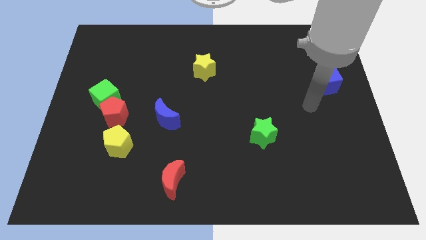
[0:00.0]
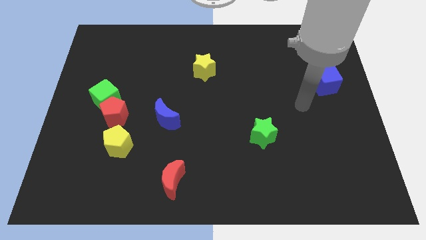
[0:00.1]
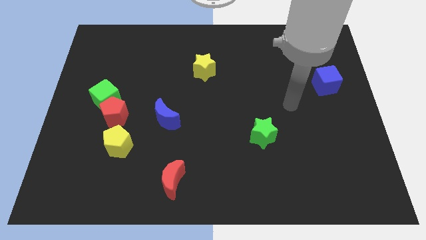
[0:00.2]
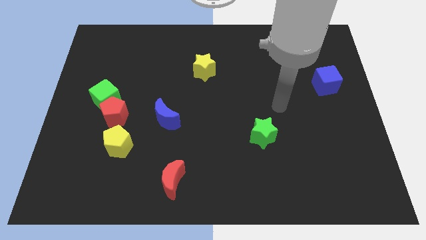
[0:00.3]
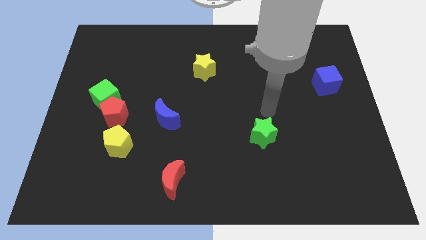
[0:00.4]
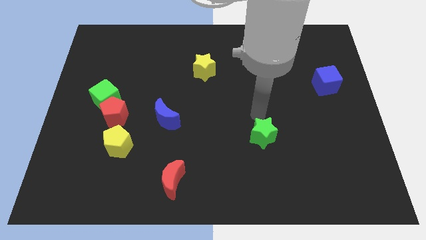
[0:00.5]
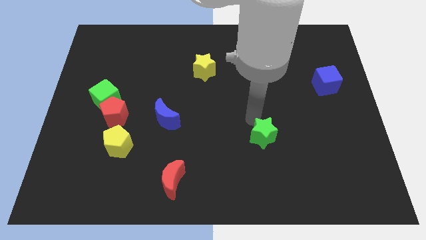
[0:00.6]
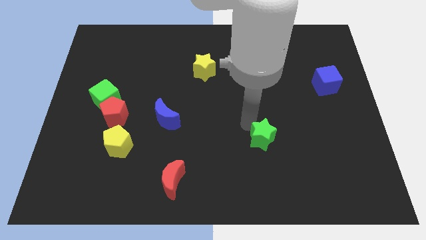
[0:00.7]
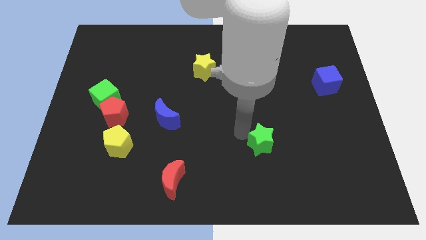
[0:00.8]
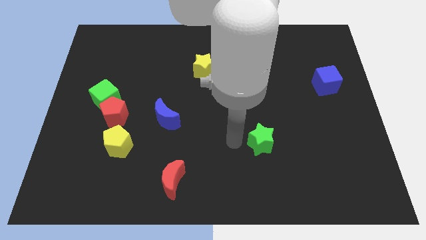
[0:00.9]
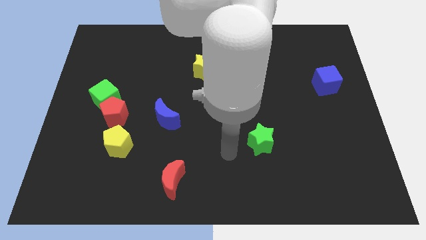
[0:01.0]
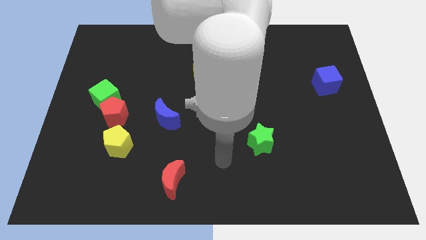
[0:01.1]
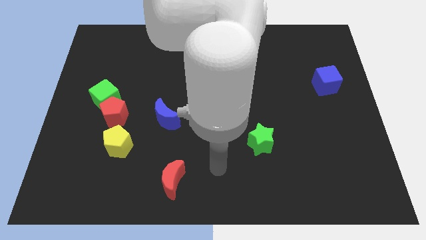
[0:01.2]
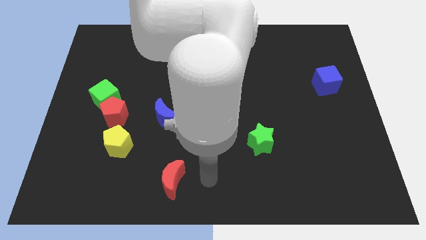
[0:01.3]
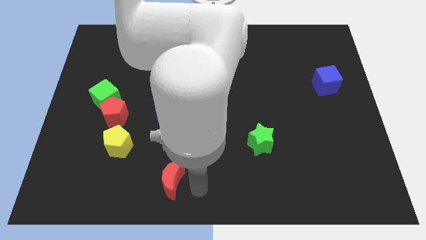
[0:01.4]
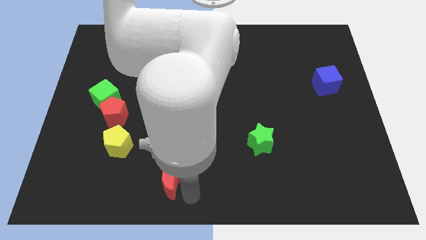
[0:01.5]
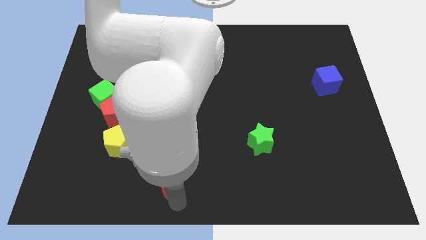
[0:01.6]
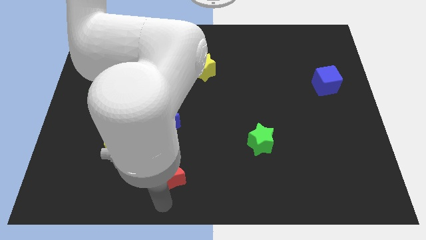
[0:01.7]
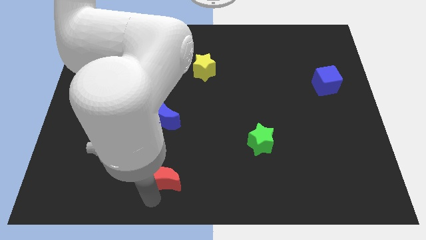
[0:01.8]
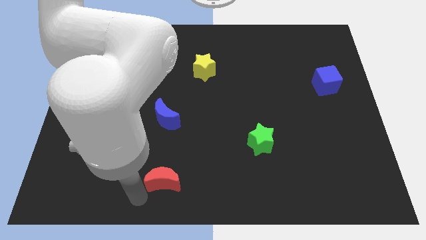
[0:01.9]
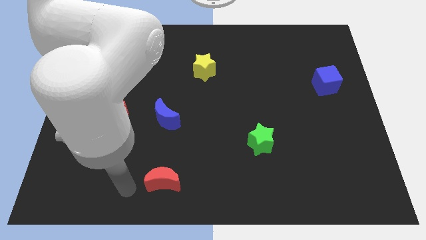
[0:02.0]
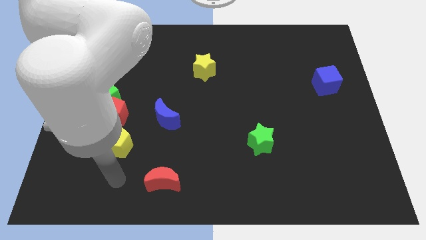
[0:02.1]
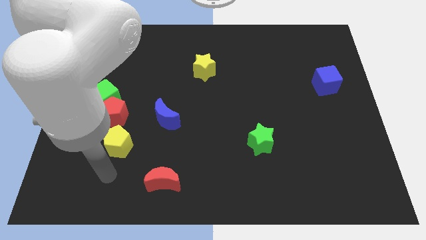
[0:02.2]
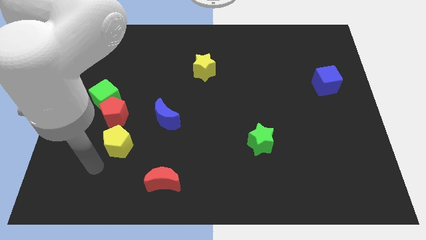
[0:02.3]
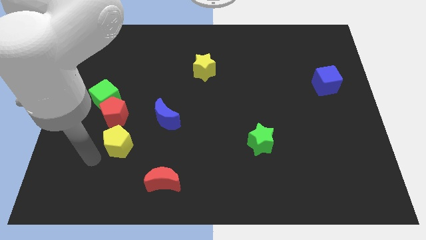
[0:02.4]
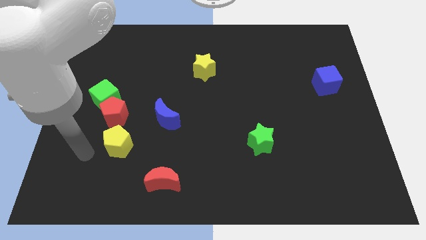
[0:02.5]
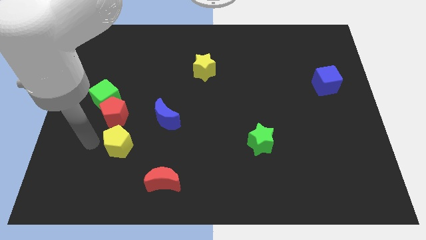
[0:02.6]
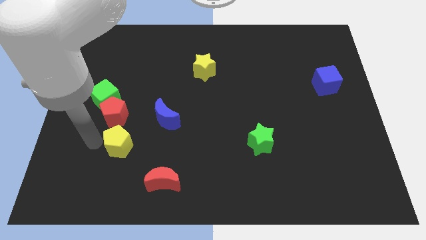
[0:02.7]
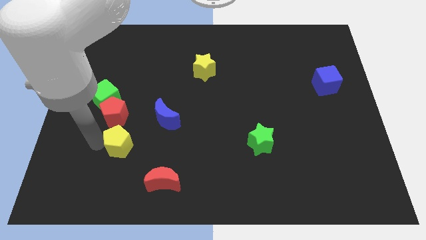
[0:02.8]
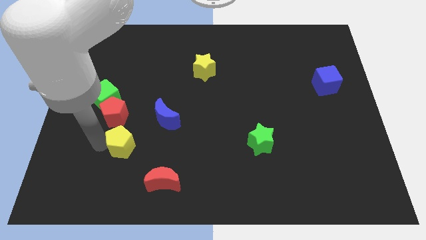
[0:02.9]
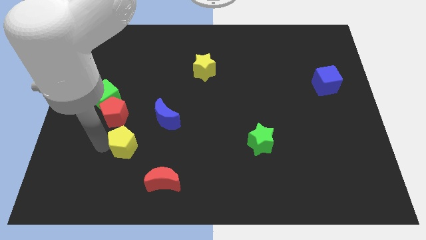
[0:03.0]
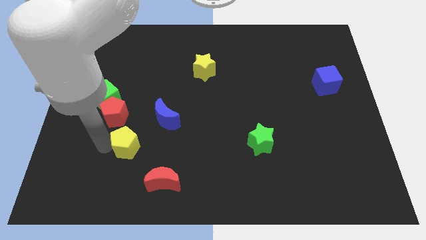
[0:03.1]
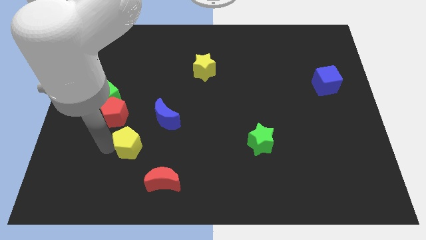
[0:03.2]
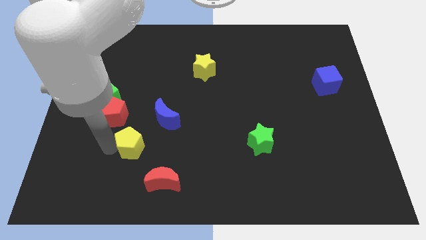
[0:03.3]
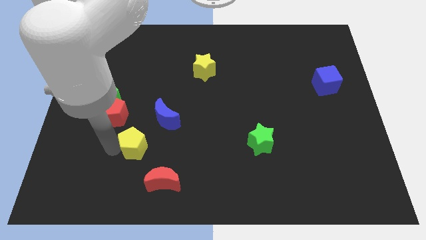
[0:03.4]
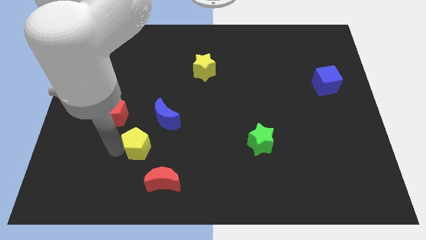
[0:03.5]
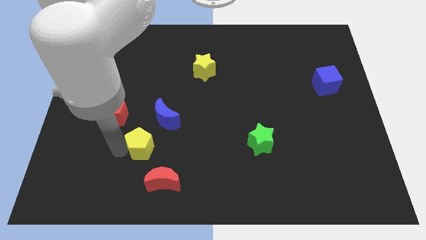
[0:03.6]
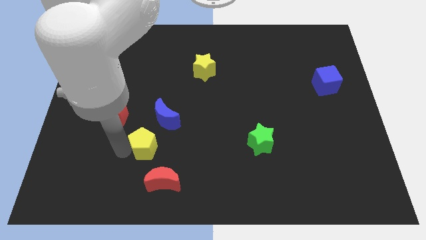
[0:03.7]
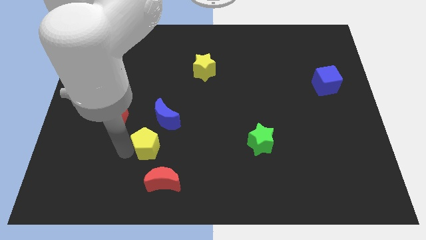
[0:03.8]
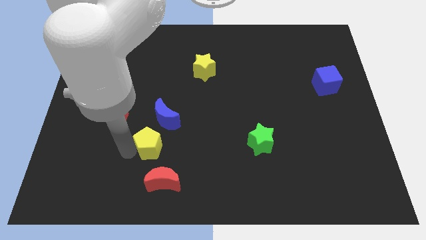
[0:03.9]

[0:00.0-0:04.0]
slightly slide the yellow pentagon to the right

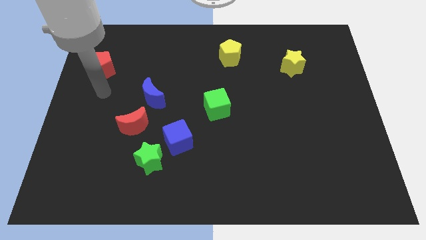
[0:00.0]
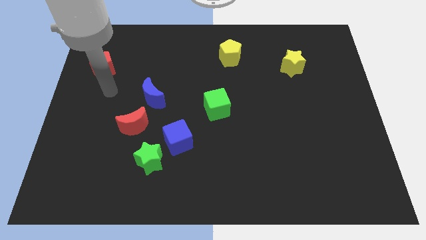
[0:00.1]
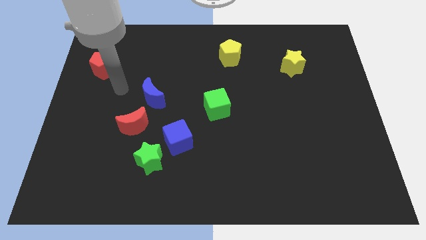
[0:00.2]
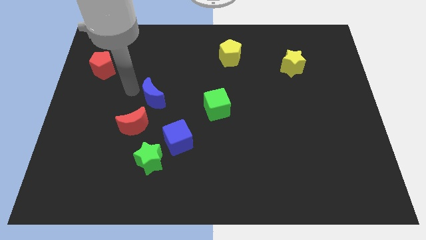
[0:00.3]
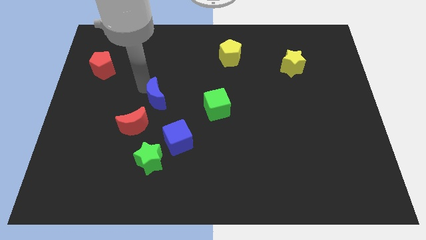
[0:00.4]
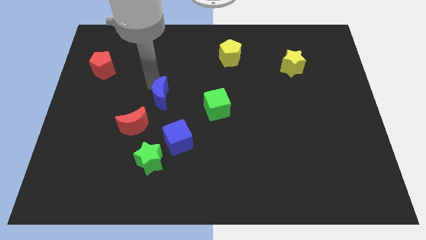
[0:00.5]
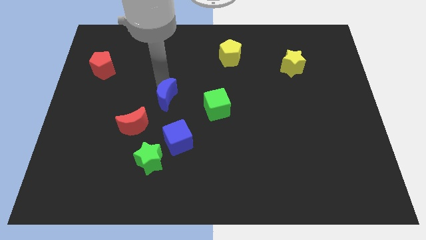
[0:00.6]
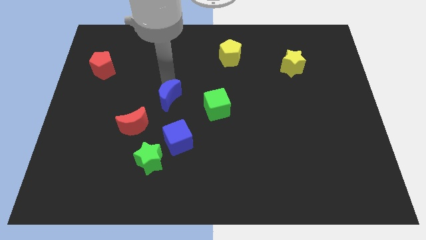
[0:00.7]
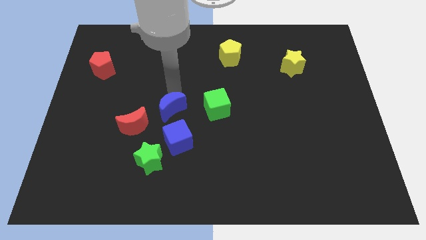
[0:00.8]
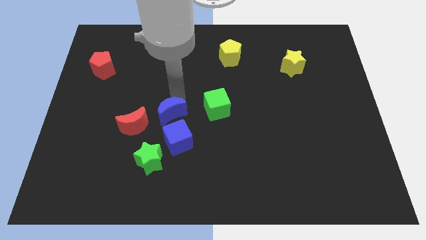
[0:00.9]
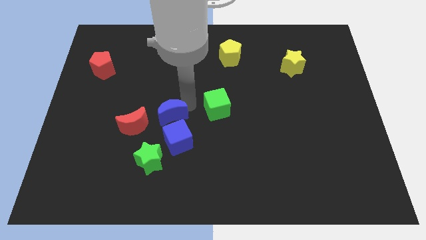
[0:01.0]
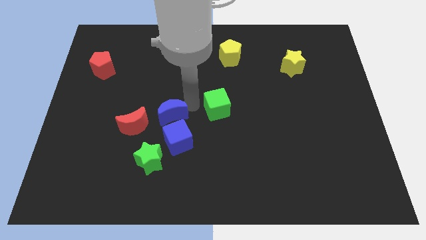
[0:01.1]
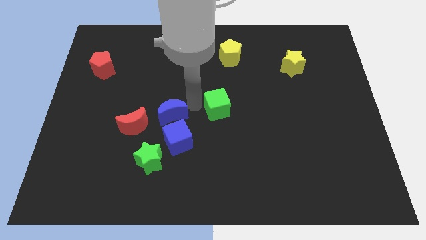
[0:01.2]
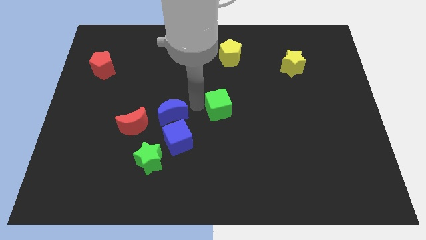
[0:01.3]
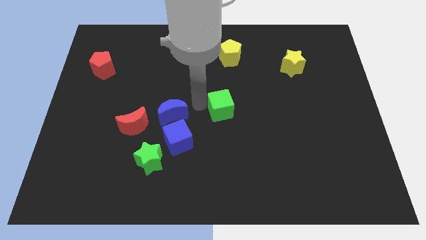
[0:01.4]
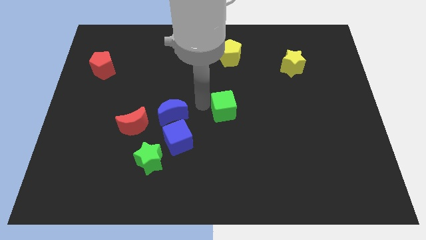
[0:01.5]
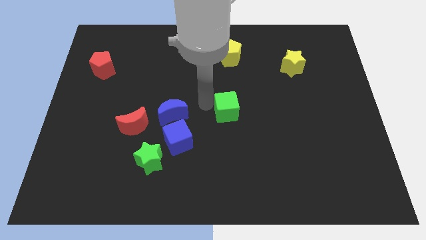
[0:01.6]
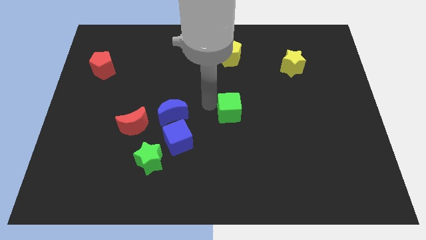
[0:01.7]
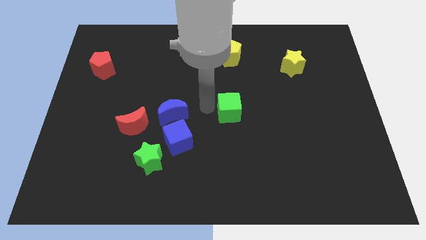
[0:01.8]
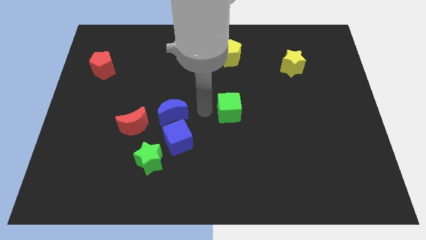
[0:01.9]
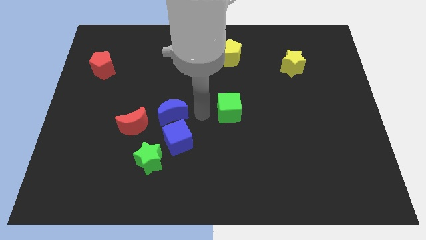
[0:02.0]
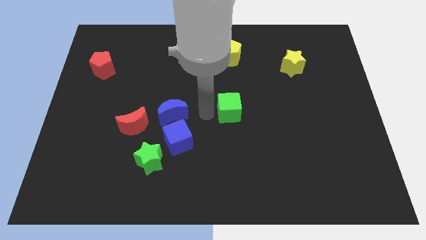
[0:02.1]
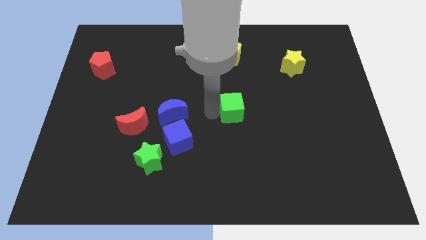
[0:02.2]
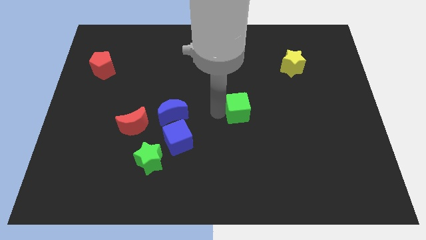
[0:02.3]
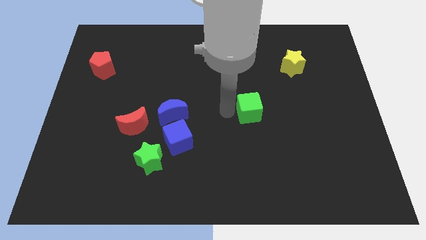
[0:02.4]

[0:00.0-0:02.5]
push the green cube to the right somewhat

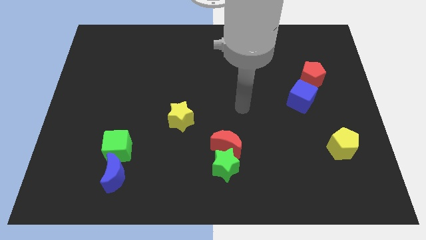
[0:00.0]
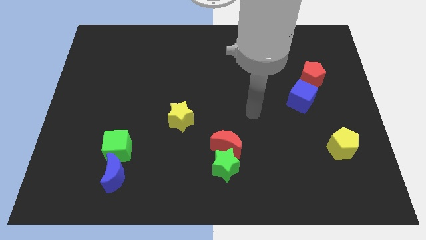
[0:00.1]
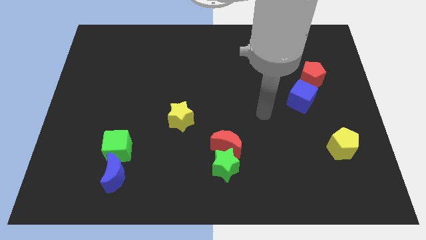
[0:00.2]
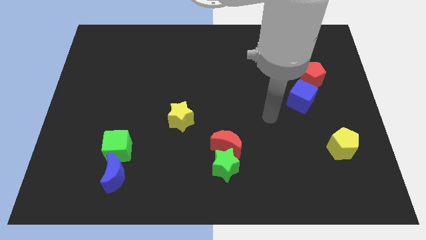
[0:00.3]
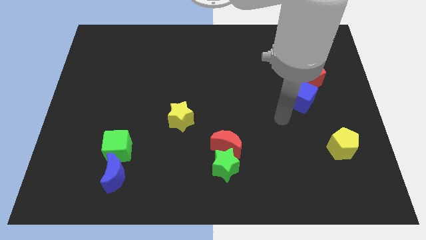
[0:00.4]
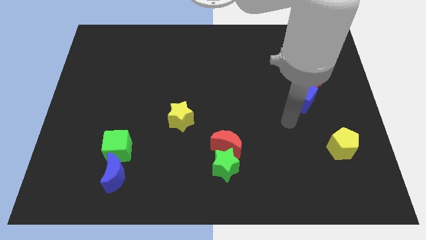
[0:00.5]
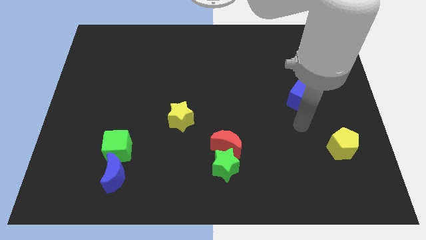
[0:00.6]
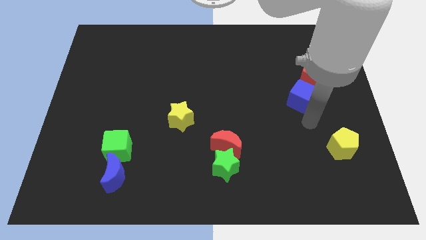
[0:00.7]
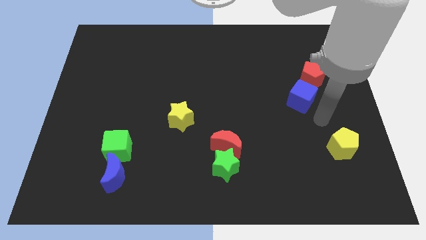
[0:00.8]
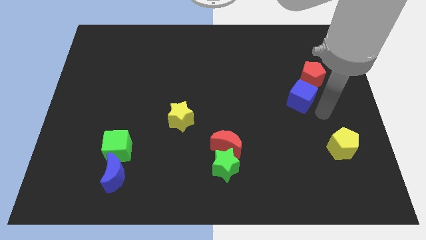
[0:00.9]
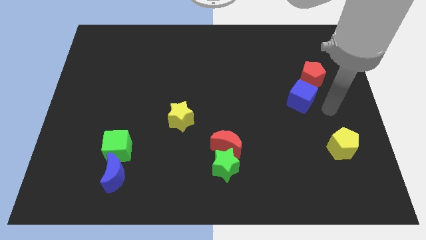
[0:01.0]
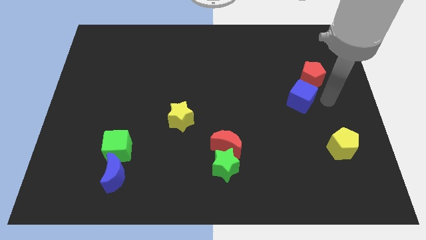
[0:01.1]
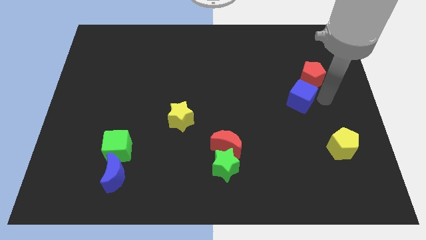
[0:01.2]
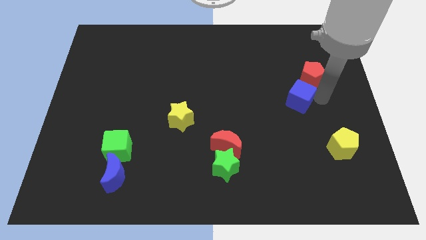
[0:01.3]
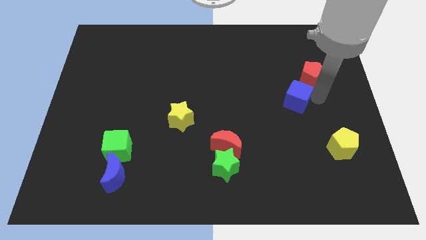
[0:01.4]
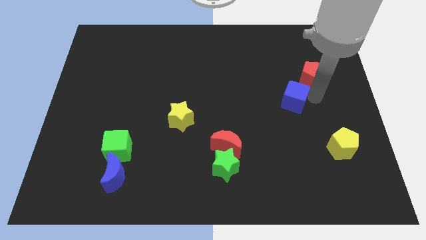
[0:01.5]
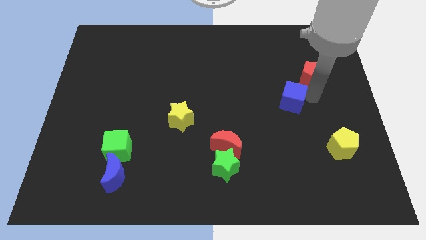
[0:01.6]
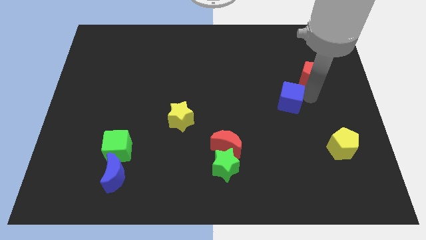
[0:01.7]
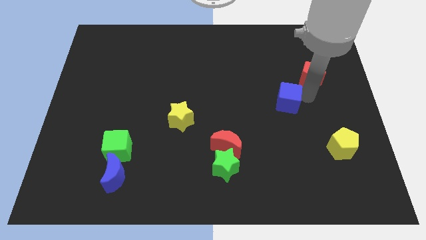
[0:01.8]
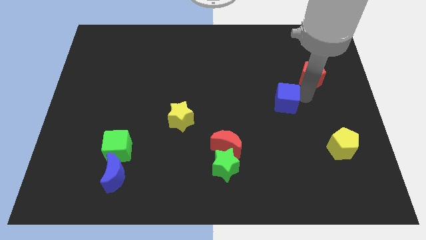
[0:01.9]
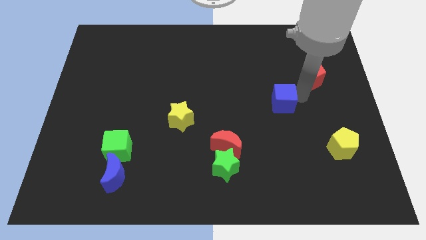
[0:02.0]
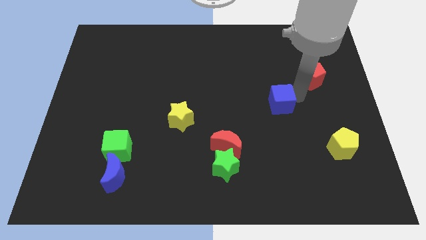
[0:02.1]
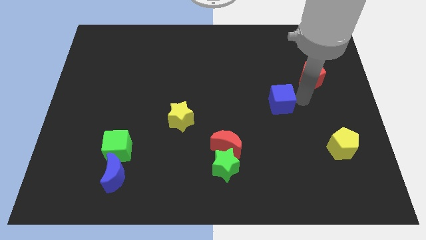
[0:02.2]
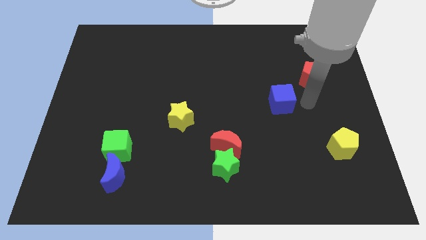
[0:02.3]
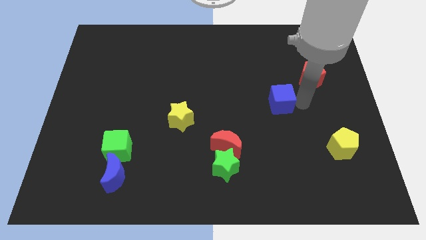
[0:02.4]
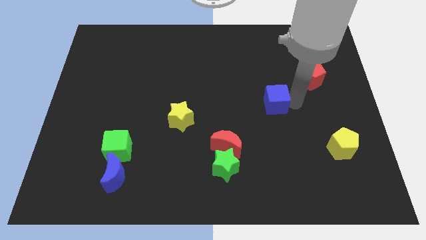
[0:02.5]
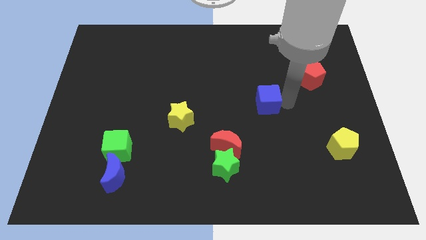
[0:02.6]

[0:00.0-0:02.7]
slide the blue cube left somewhat
